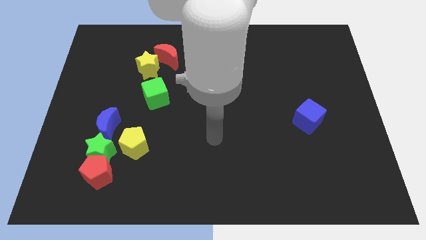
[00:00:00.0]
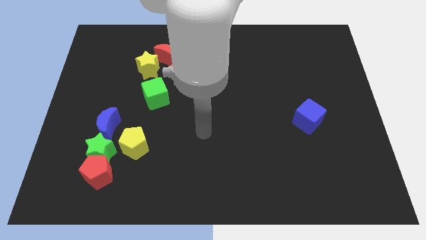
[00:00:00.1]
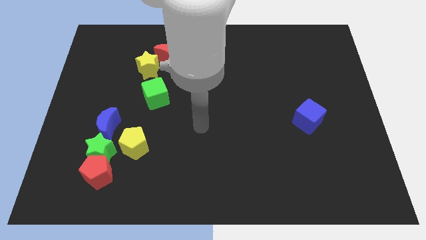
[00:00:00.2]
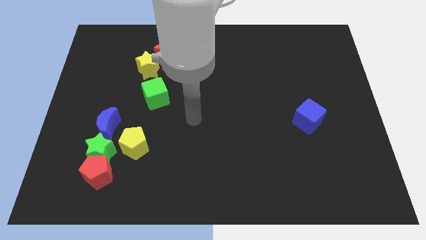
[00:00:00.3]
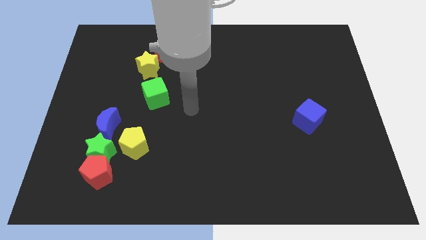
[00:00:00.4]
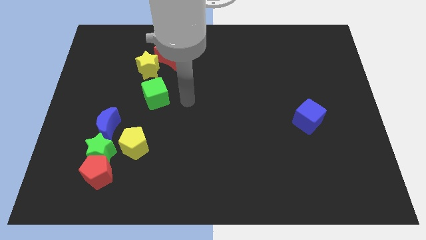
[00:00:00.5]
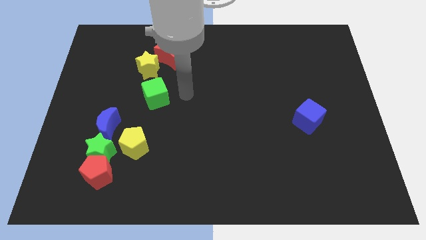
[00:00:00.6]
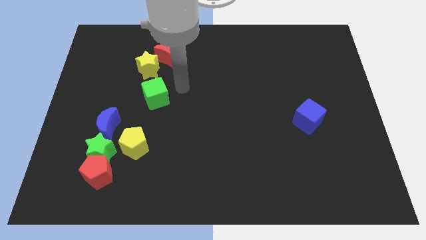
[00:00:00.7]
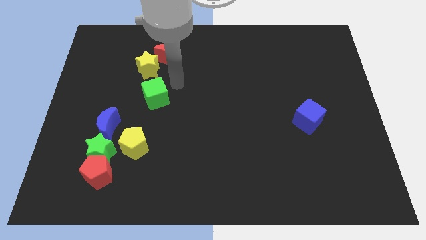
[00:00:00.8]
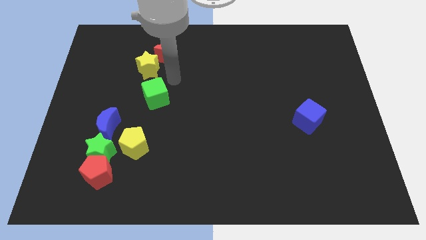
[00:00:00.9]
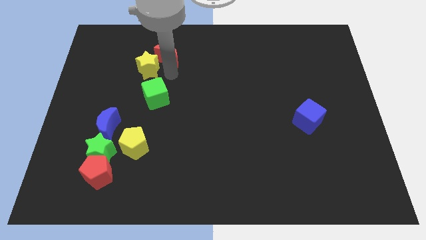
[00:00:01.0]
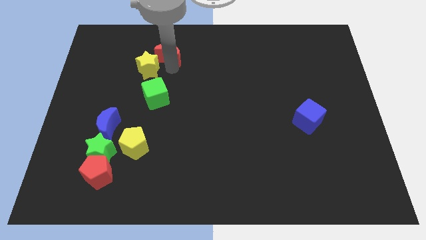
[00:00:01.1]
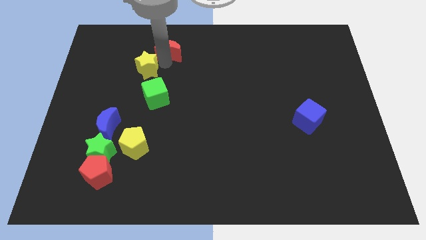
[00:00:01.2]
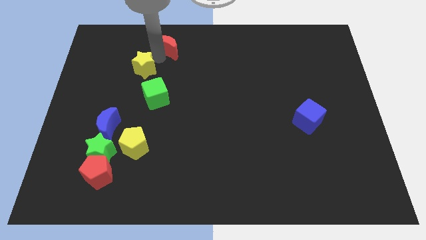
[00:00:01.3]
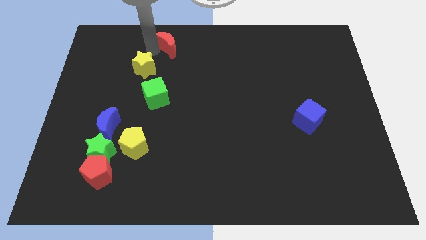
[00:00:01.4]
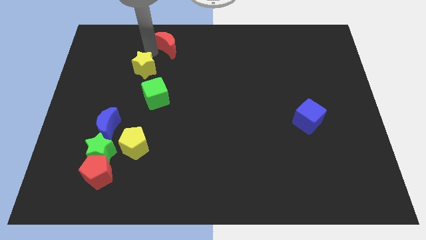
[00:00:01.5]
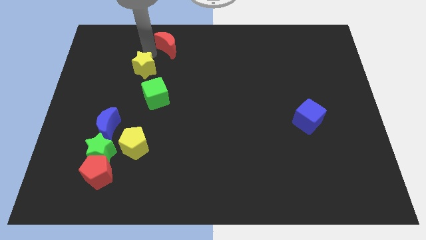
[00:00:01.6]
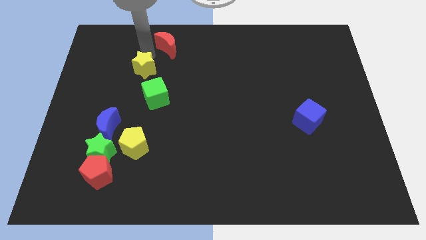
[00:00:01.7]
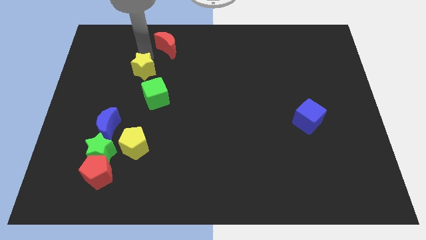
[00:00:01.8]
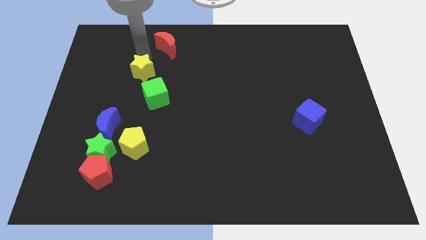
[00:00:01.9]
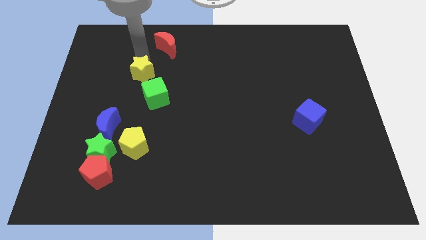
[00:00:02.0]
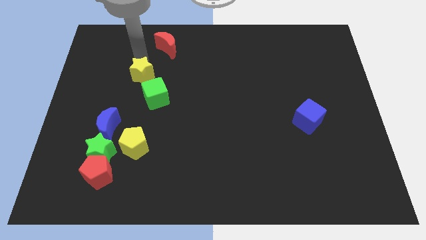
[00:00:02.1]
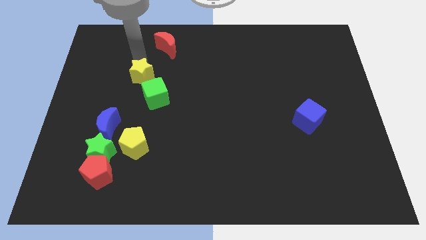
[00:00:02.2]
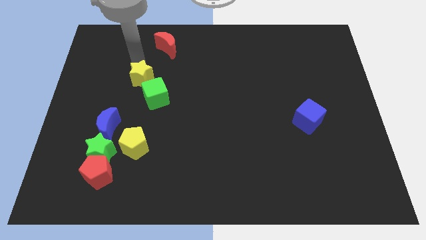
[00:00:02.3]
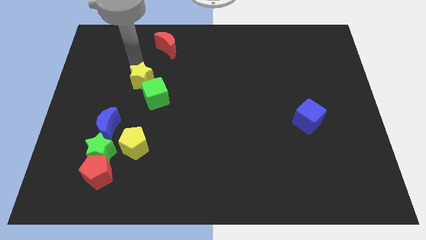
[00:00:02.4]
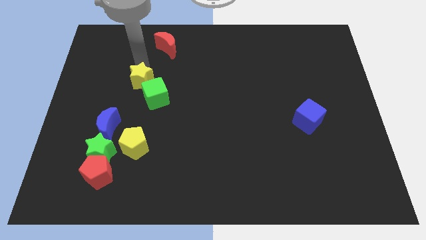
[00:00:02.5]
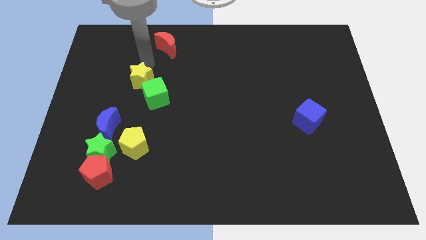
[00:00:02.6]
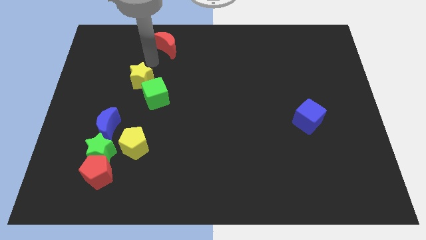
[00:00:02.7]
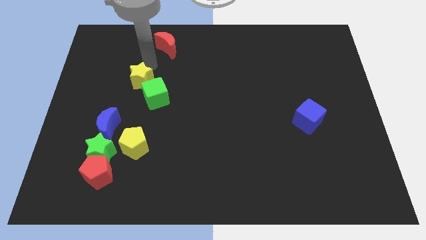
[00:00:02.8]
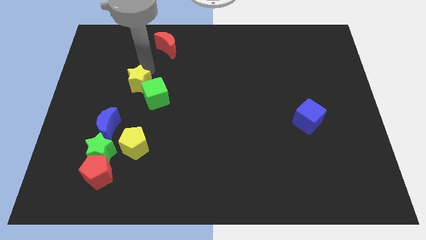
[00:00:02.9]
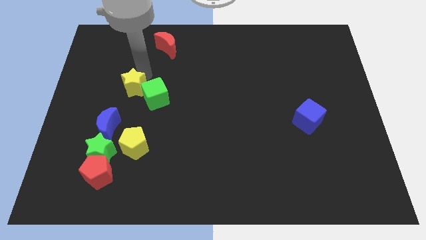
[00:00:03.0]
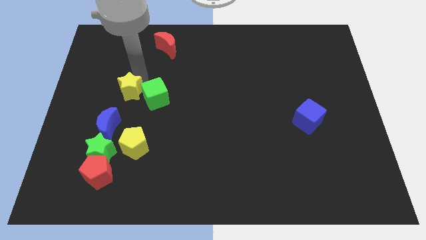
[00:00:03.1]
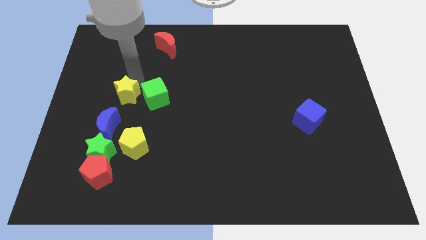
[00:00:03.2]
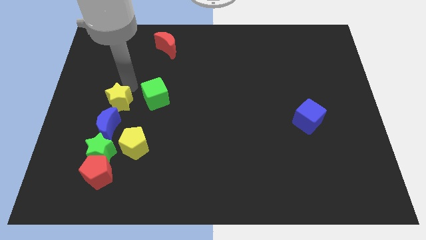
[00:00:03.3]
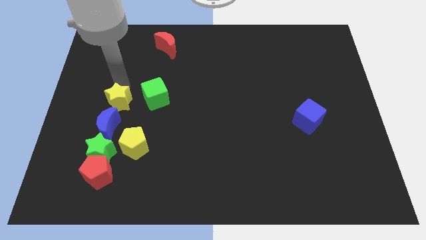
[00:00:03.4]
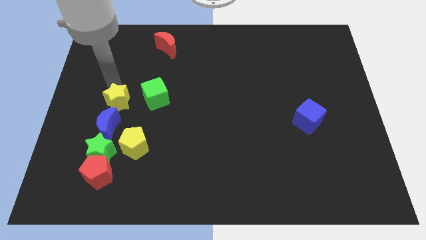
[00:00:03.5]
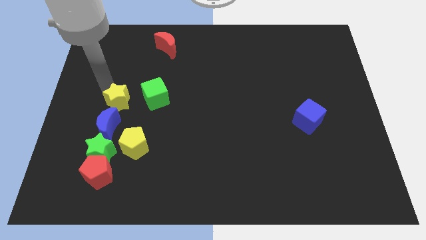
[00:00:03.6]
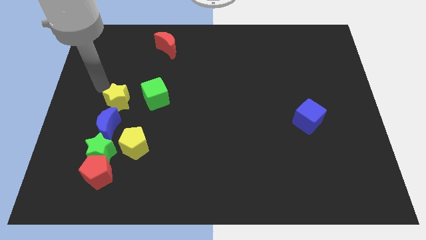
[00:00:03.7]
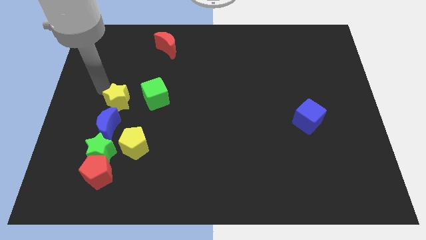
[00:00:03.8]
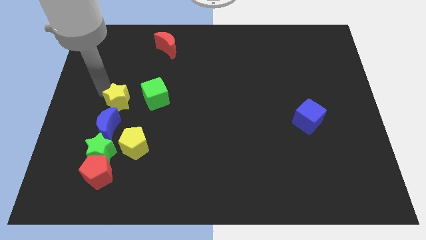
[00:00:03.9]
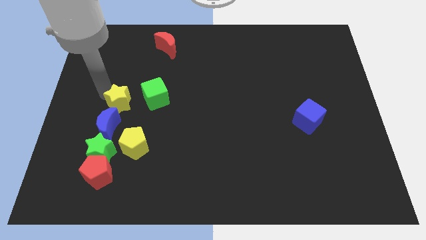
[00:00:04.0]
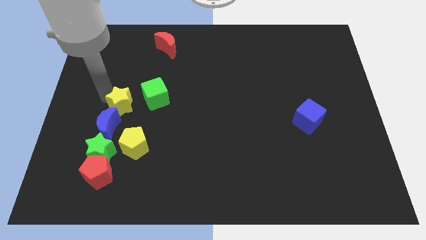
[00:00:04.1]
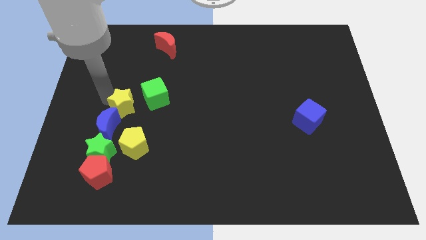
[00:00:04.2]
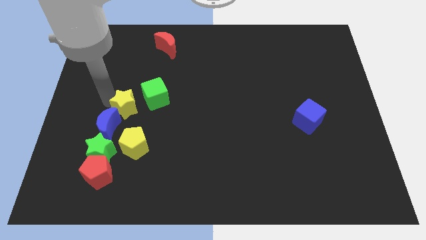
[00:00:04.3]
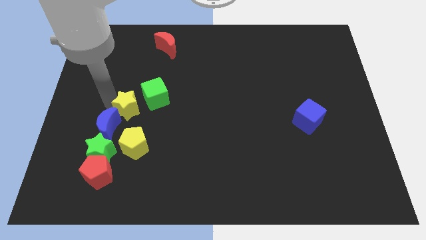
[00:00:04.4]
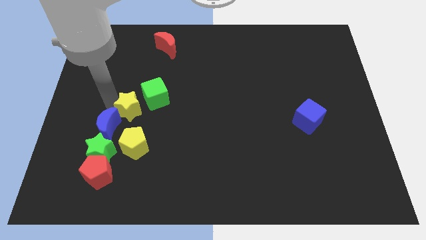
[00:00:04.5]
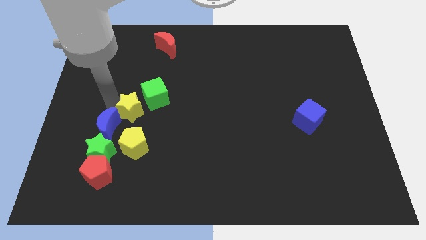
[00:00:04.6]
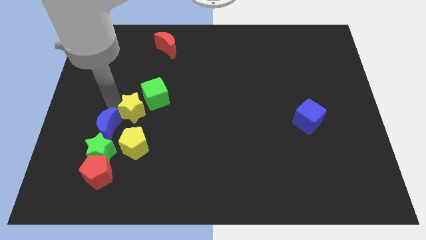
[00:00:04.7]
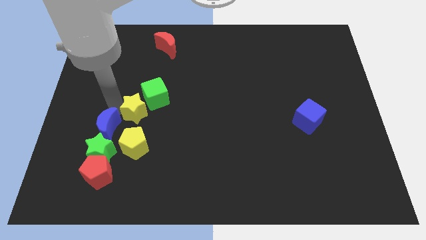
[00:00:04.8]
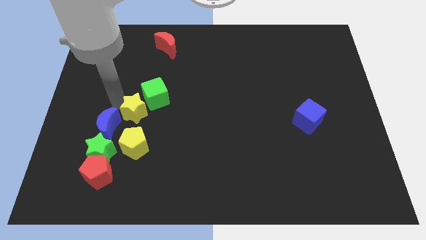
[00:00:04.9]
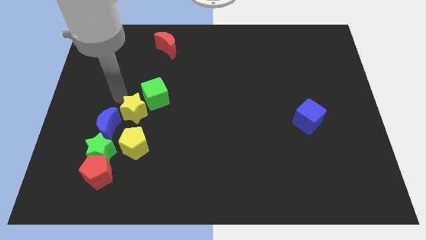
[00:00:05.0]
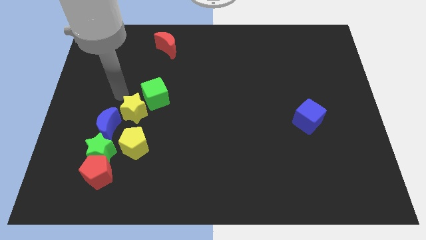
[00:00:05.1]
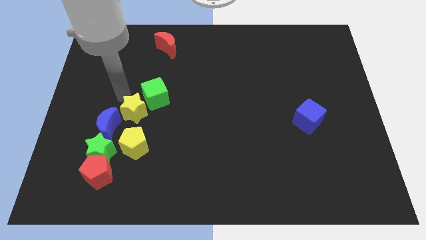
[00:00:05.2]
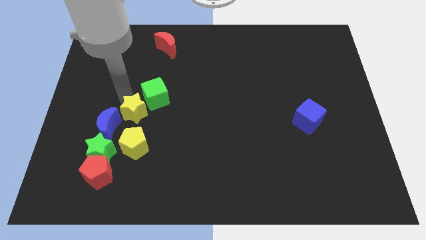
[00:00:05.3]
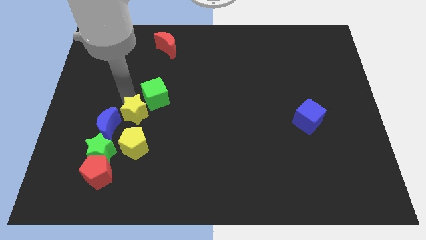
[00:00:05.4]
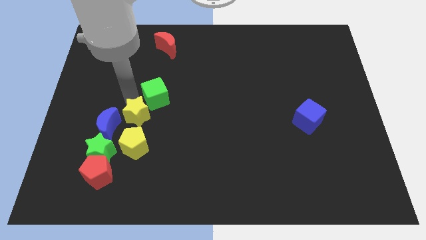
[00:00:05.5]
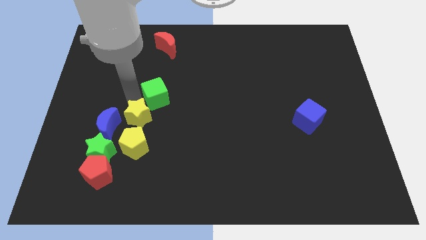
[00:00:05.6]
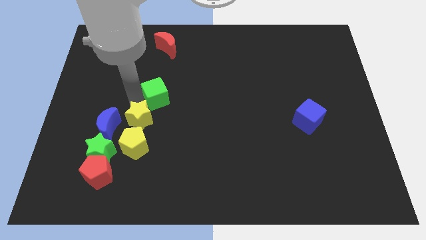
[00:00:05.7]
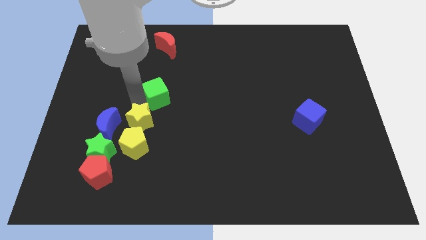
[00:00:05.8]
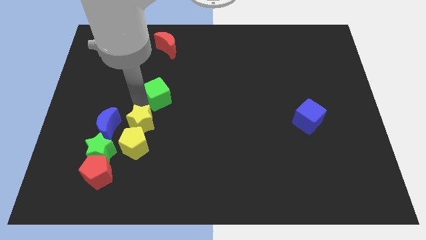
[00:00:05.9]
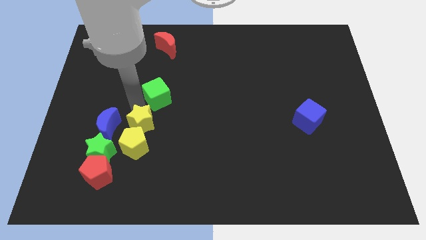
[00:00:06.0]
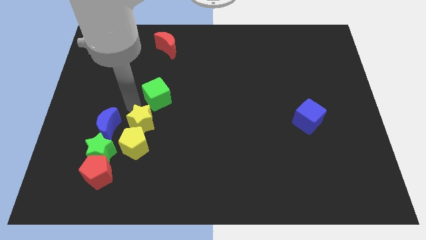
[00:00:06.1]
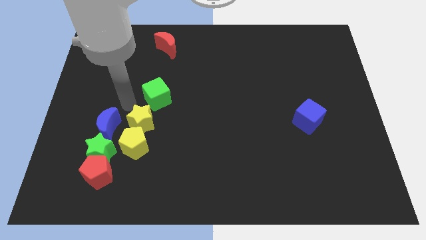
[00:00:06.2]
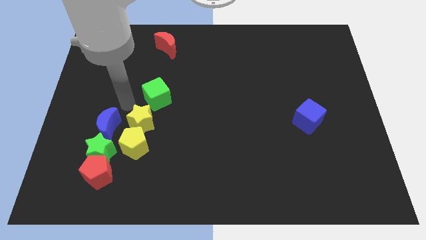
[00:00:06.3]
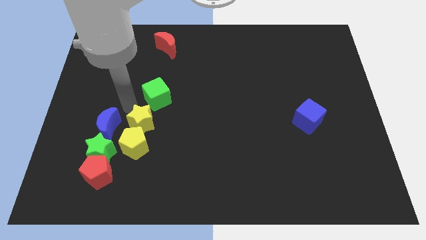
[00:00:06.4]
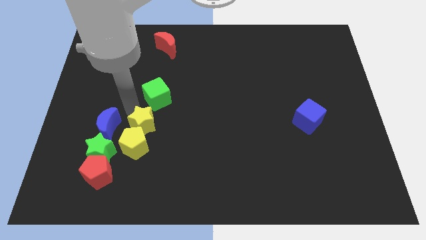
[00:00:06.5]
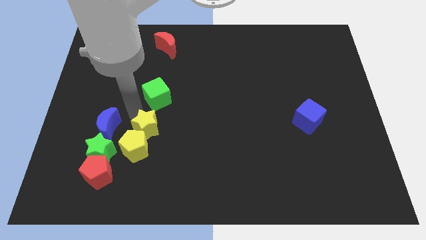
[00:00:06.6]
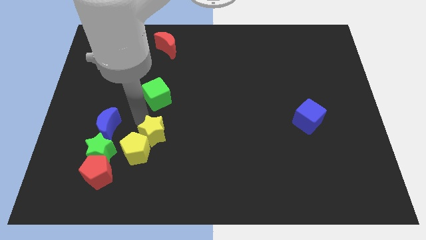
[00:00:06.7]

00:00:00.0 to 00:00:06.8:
slide the yellow star down

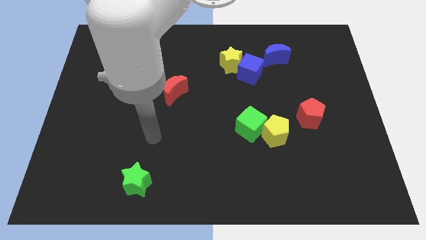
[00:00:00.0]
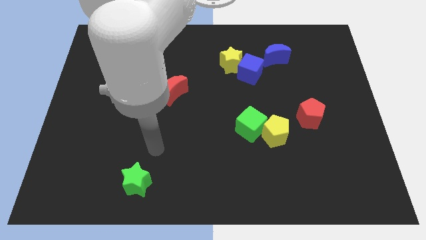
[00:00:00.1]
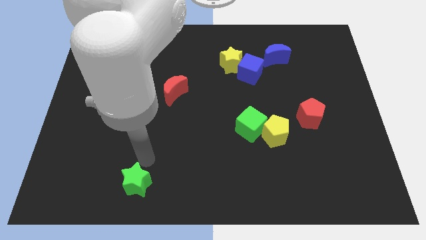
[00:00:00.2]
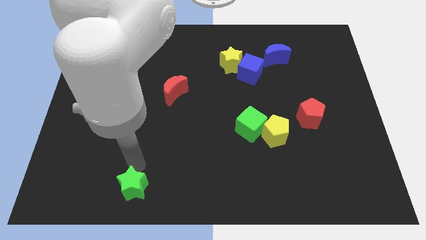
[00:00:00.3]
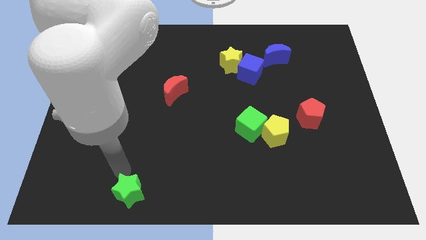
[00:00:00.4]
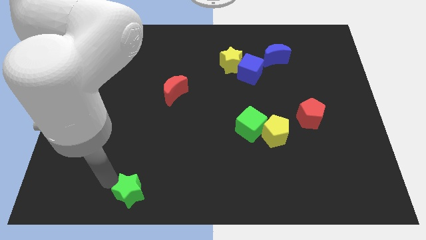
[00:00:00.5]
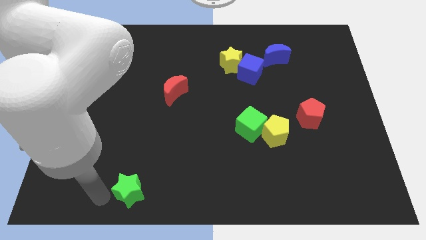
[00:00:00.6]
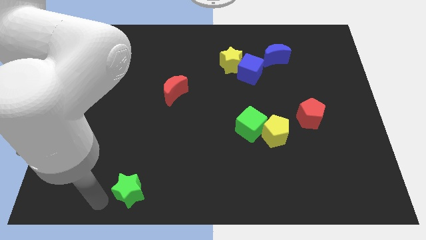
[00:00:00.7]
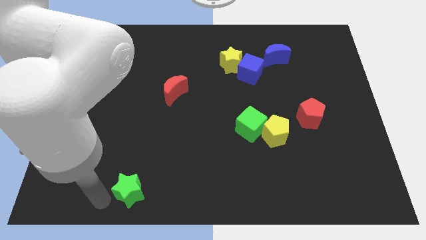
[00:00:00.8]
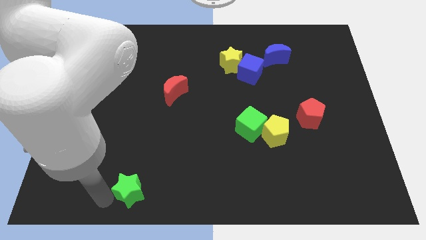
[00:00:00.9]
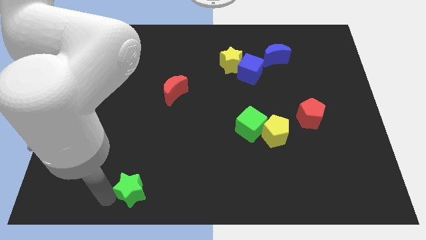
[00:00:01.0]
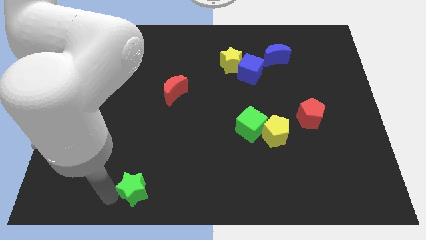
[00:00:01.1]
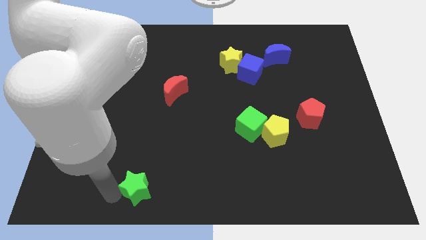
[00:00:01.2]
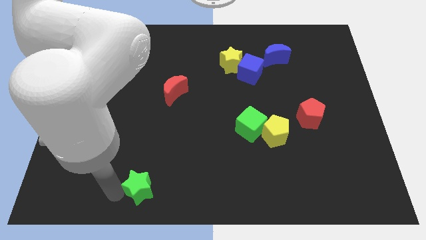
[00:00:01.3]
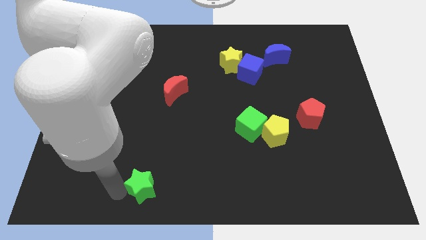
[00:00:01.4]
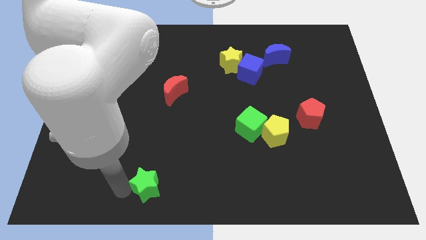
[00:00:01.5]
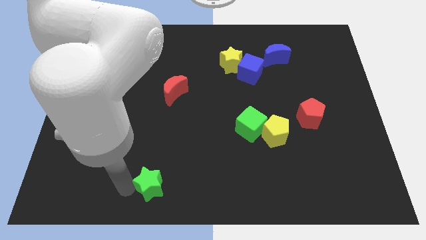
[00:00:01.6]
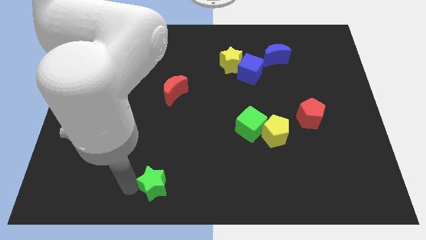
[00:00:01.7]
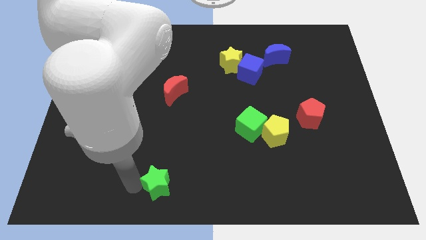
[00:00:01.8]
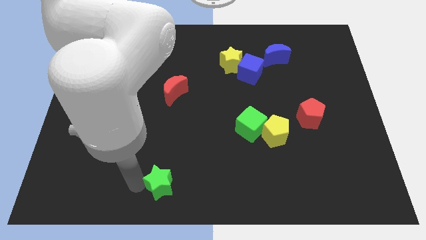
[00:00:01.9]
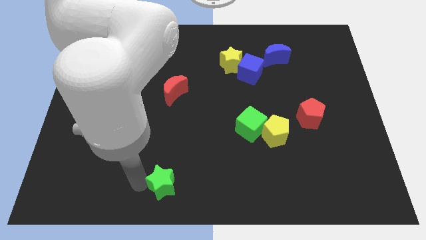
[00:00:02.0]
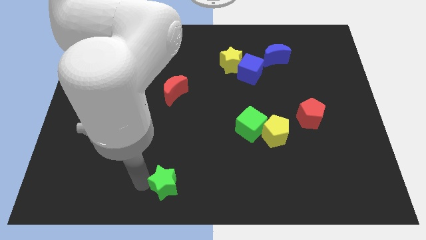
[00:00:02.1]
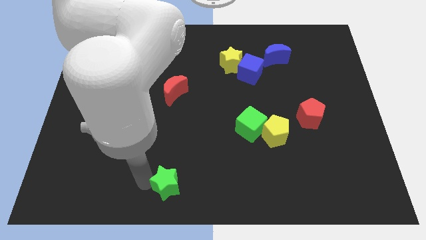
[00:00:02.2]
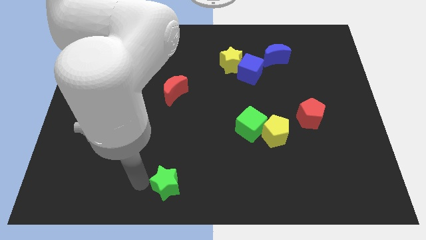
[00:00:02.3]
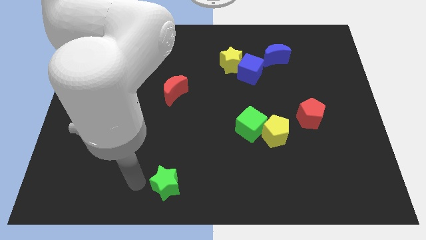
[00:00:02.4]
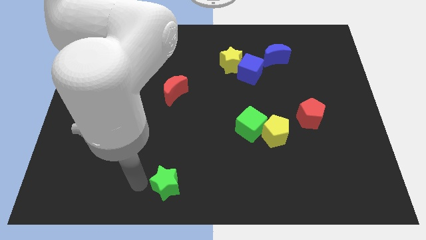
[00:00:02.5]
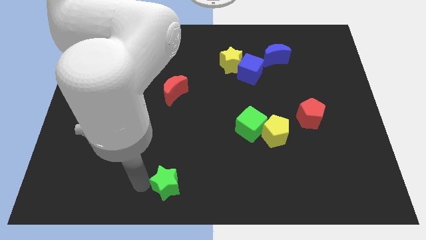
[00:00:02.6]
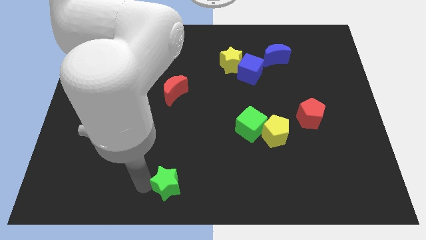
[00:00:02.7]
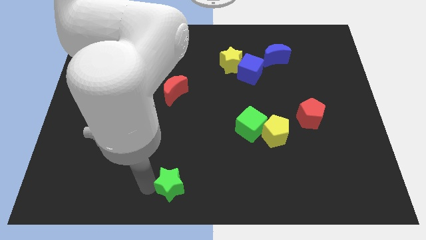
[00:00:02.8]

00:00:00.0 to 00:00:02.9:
slightly push the green star right
